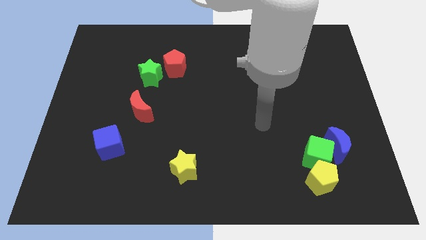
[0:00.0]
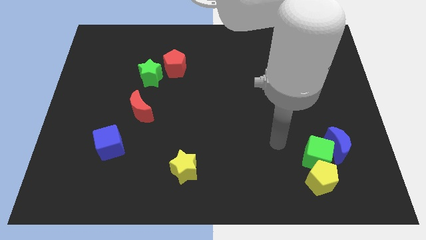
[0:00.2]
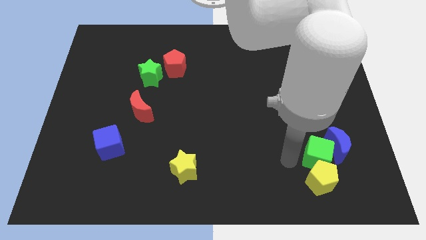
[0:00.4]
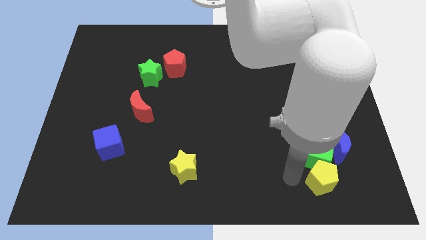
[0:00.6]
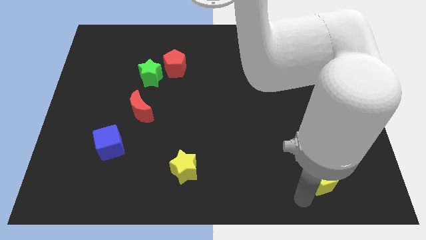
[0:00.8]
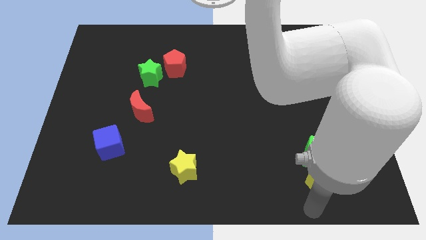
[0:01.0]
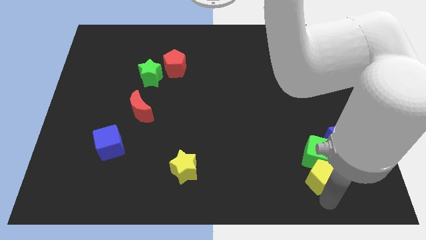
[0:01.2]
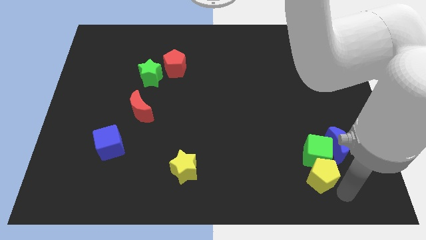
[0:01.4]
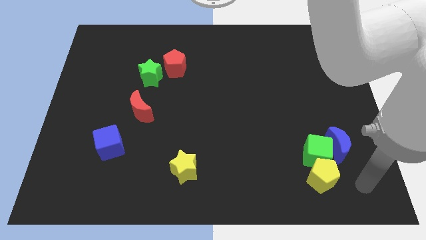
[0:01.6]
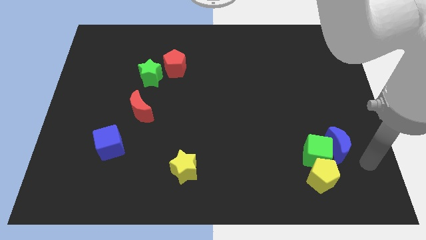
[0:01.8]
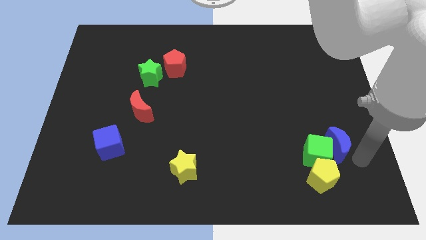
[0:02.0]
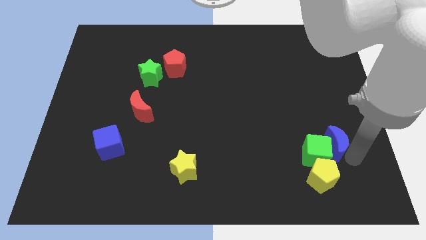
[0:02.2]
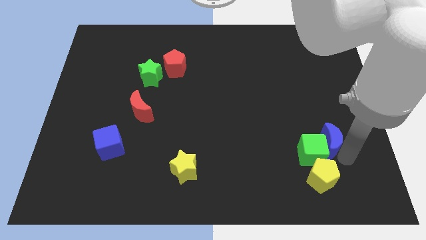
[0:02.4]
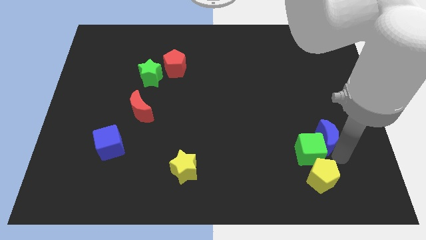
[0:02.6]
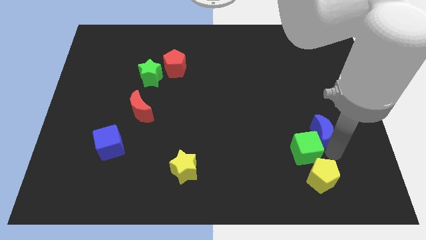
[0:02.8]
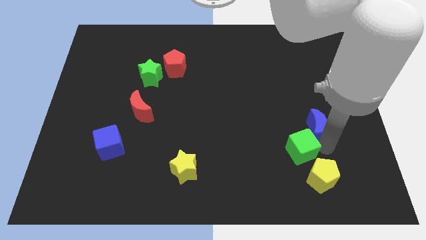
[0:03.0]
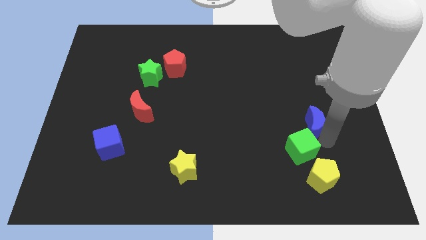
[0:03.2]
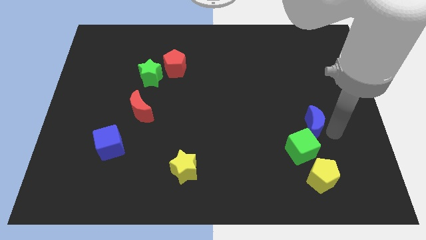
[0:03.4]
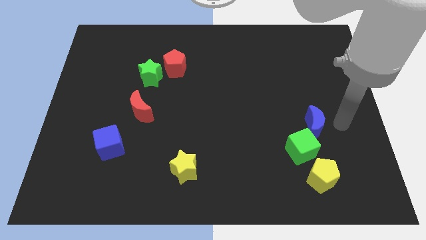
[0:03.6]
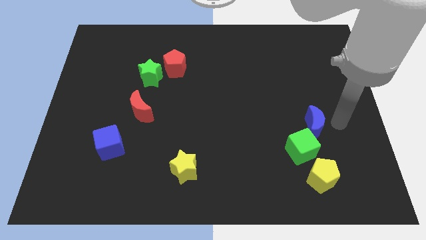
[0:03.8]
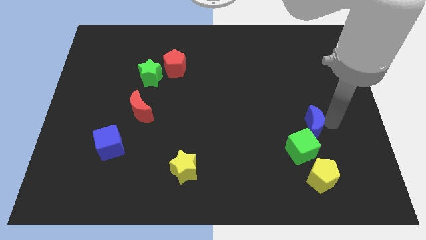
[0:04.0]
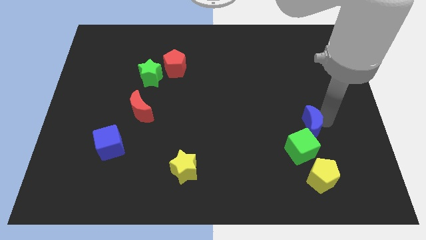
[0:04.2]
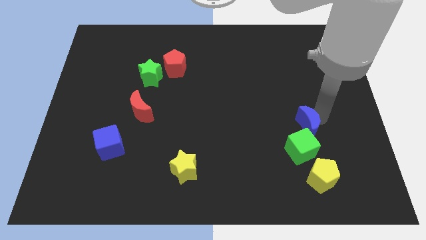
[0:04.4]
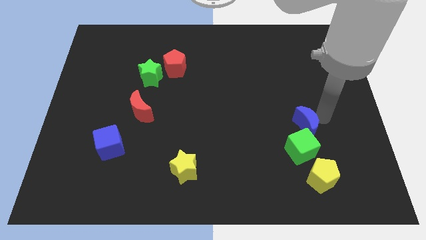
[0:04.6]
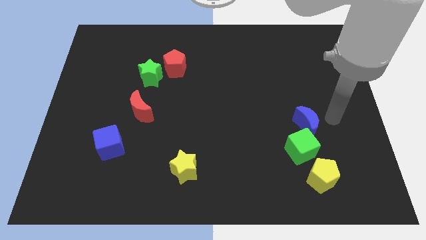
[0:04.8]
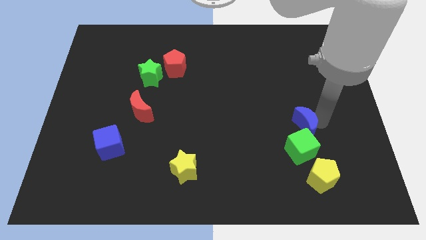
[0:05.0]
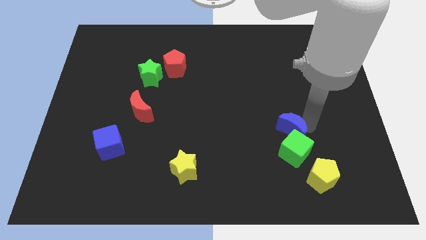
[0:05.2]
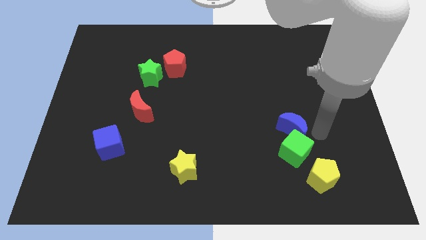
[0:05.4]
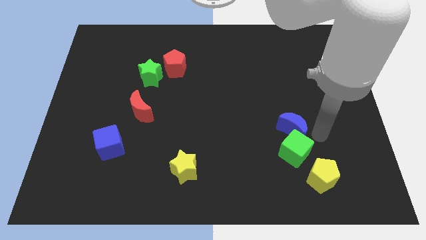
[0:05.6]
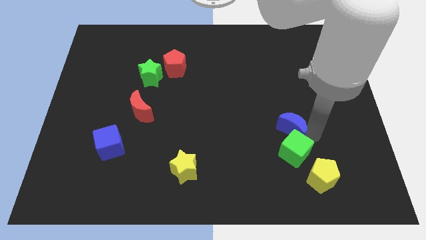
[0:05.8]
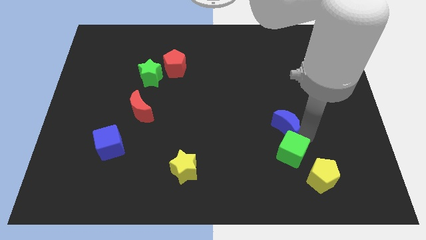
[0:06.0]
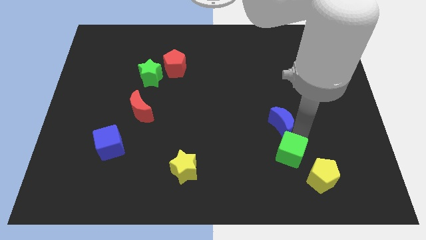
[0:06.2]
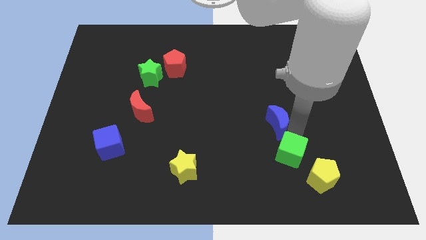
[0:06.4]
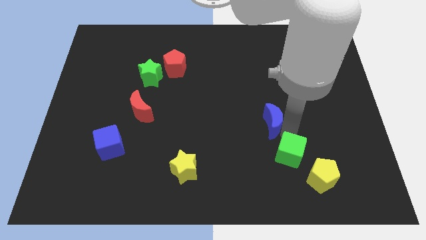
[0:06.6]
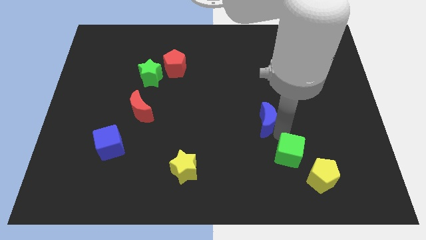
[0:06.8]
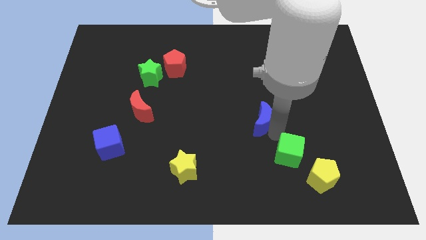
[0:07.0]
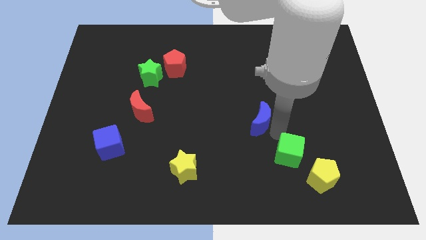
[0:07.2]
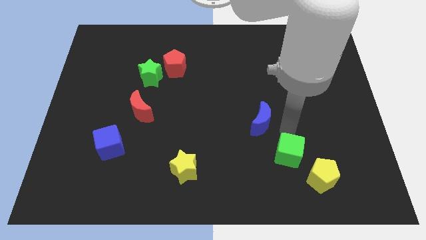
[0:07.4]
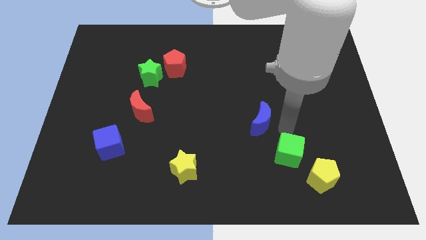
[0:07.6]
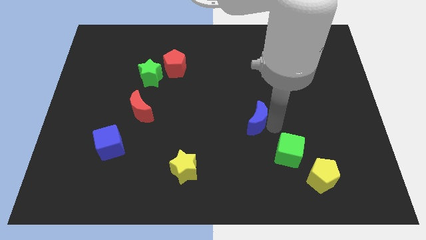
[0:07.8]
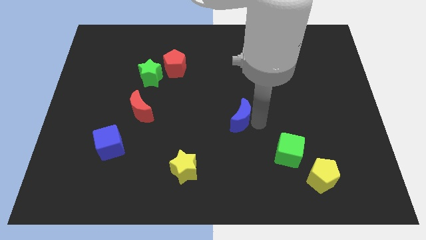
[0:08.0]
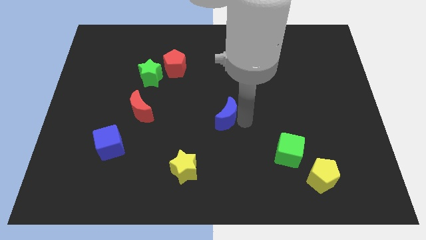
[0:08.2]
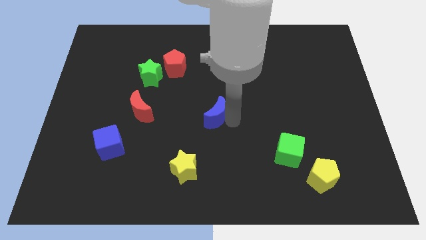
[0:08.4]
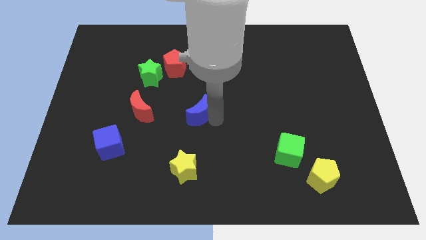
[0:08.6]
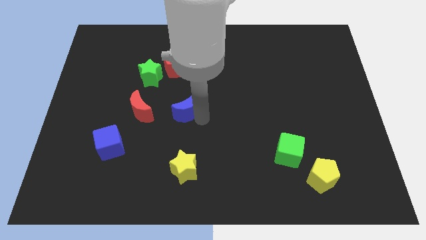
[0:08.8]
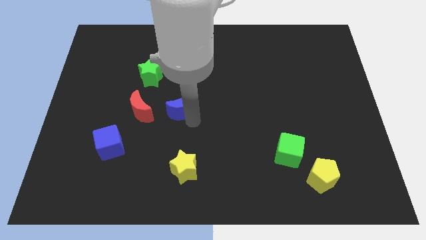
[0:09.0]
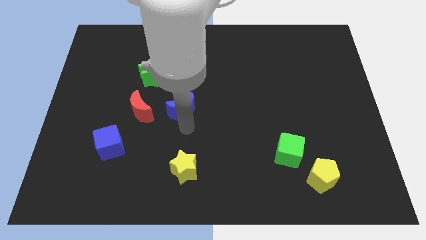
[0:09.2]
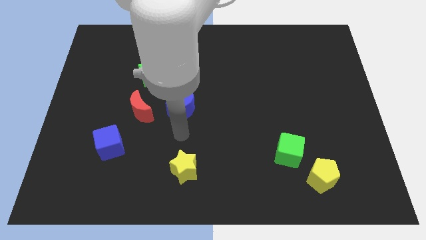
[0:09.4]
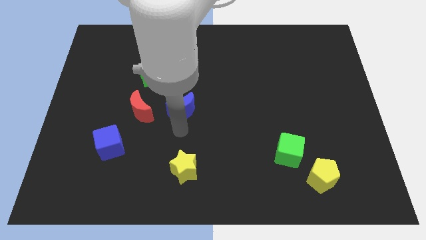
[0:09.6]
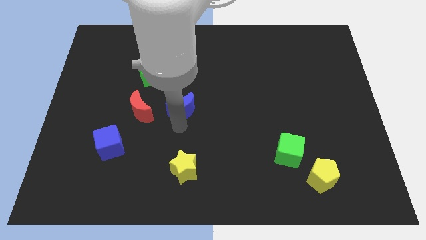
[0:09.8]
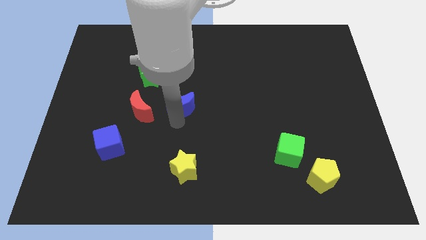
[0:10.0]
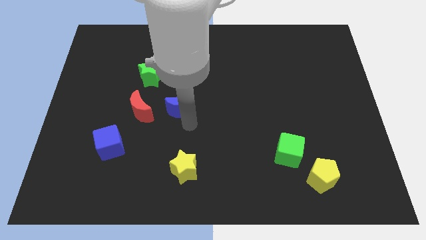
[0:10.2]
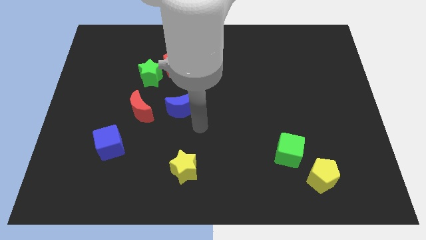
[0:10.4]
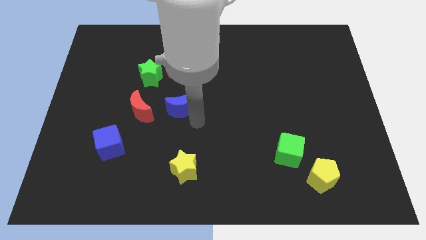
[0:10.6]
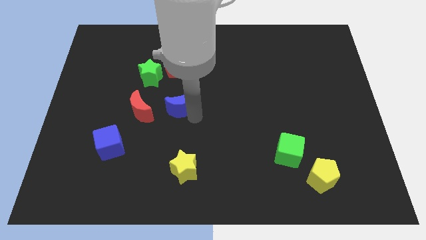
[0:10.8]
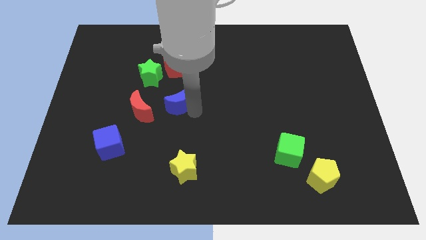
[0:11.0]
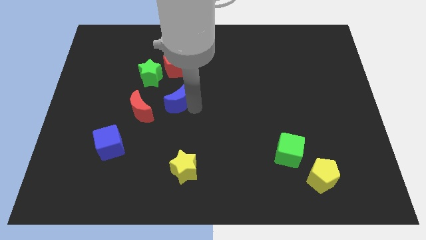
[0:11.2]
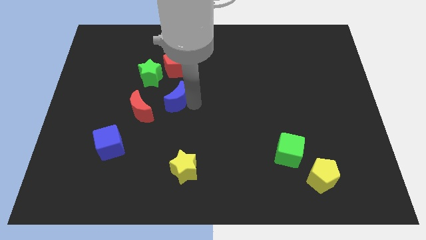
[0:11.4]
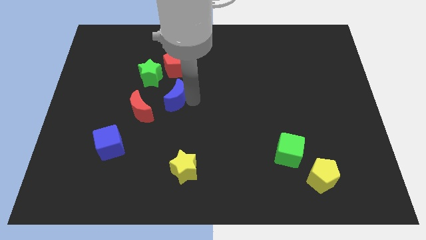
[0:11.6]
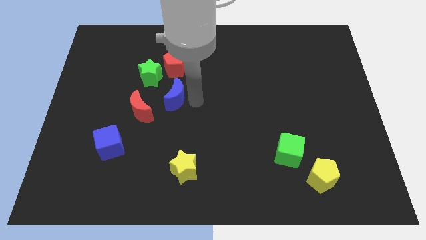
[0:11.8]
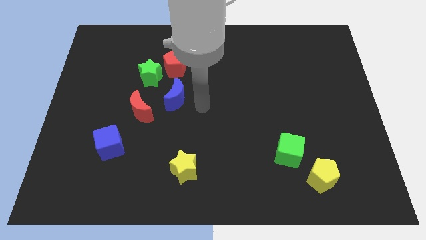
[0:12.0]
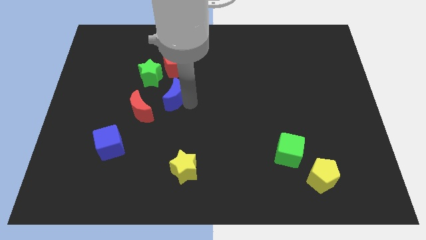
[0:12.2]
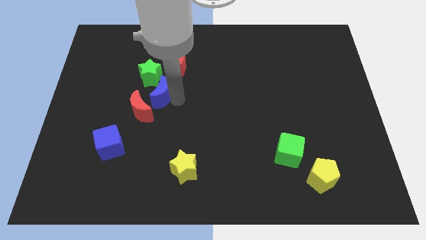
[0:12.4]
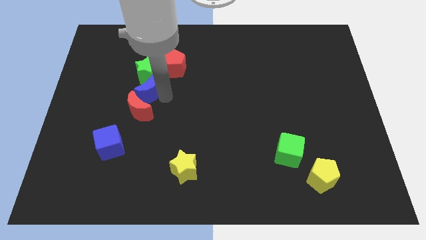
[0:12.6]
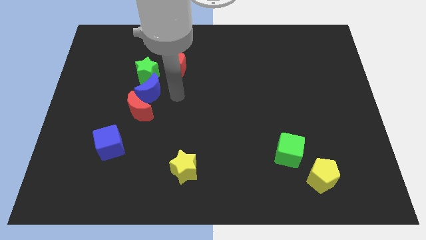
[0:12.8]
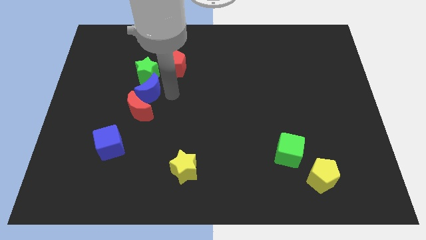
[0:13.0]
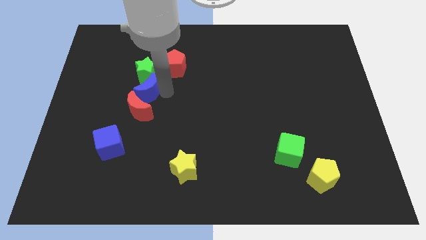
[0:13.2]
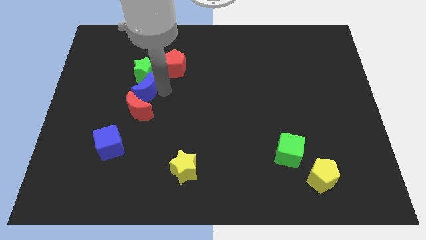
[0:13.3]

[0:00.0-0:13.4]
put the blue moon to the bottom left of the green star

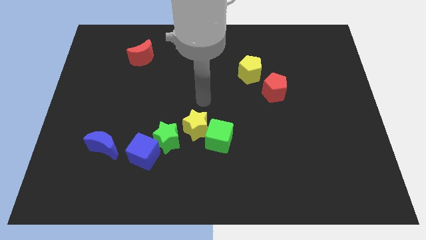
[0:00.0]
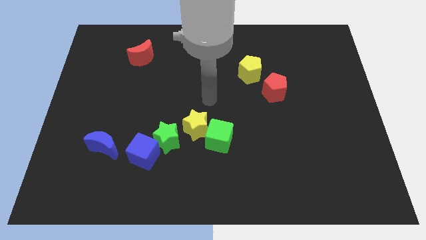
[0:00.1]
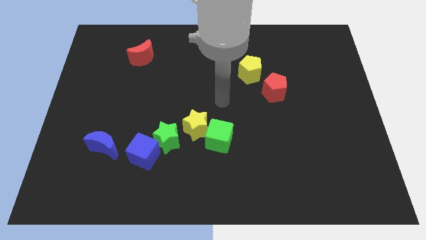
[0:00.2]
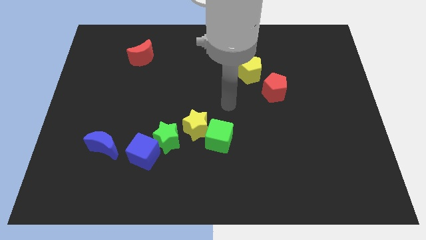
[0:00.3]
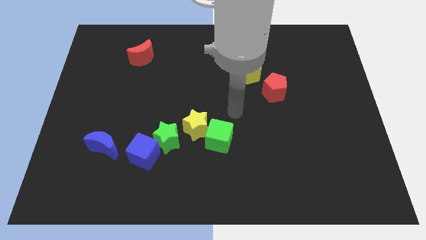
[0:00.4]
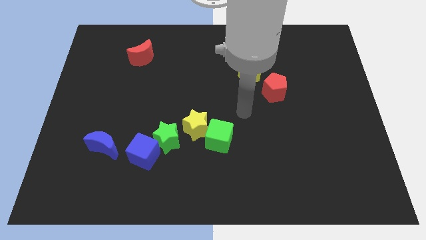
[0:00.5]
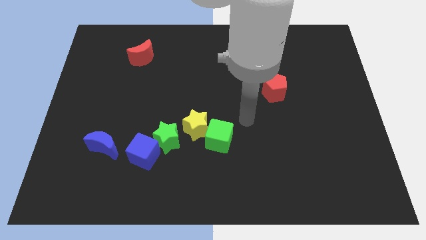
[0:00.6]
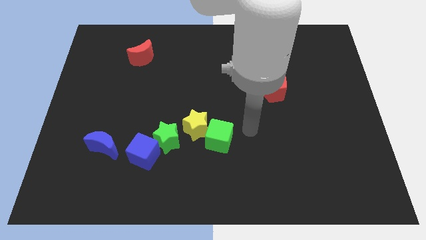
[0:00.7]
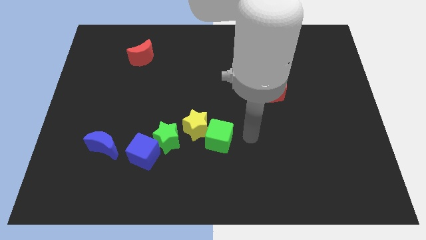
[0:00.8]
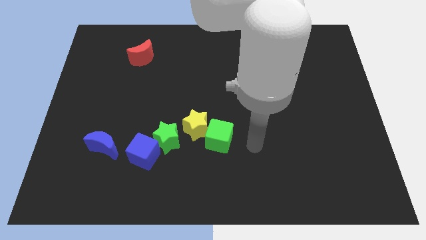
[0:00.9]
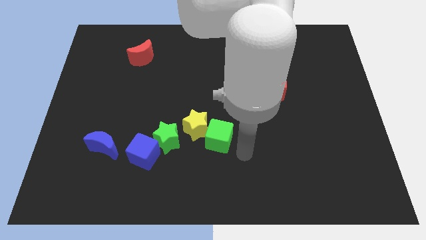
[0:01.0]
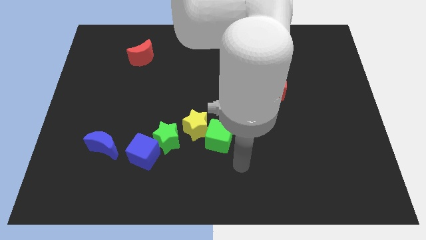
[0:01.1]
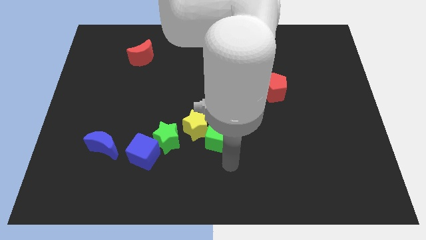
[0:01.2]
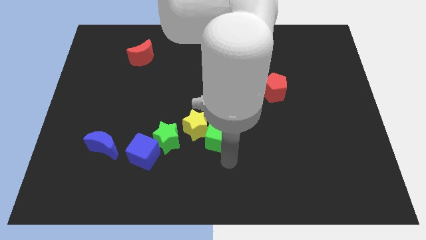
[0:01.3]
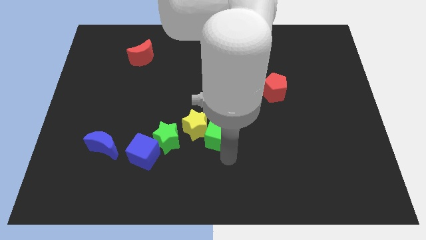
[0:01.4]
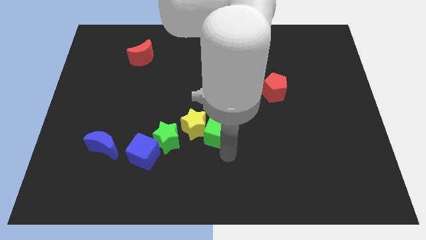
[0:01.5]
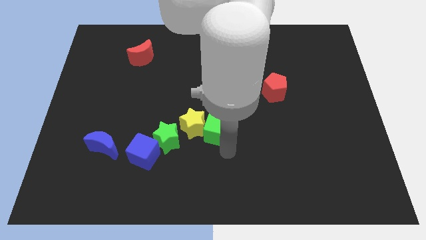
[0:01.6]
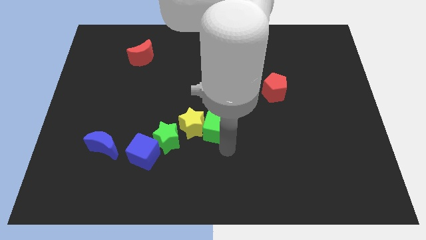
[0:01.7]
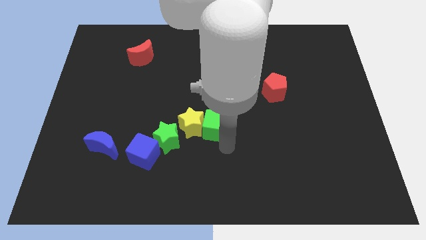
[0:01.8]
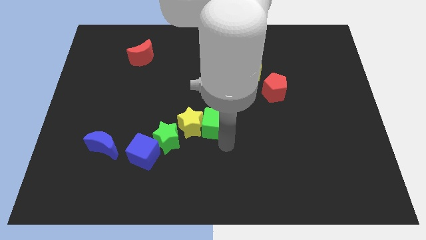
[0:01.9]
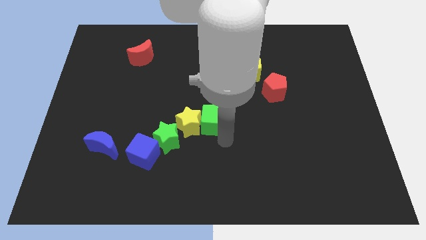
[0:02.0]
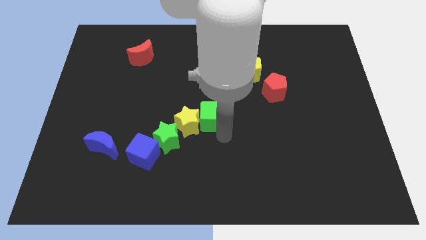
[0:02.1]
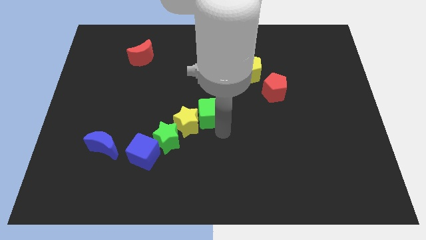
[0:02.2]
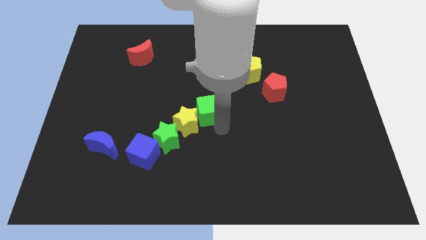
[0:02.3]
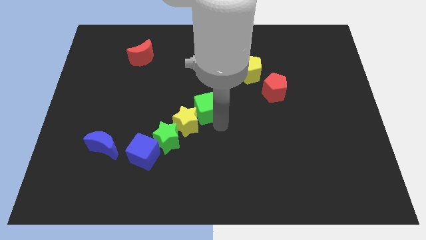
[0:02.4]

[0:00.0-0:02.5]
push the green cube to the top of the yellow star
